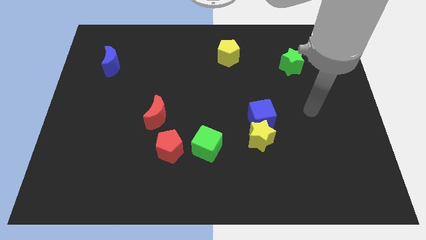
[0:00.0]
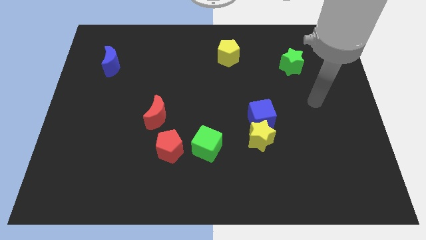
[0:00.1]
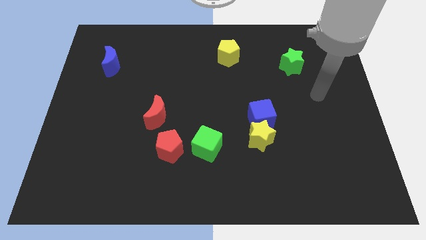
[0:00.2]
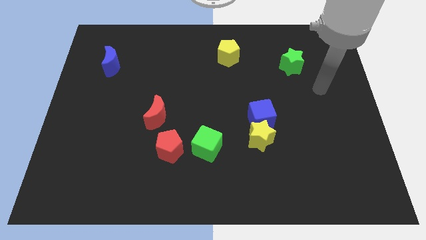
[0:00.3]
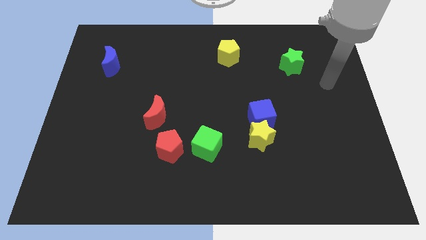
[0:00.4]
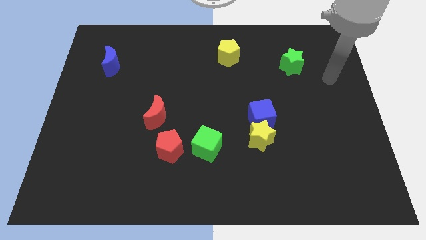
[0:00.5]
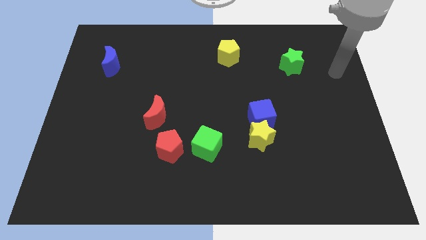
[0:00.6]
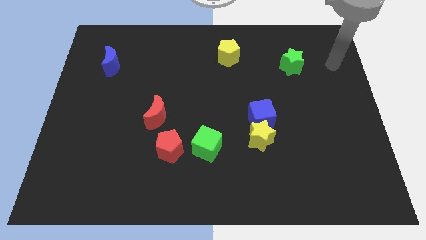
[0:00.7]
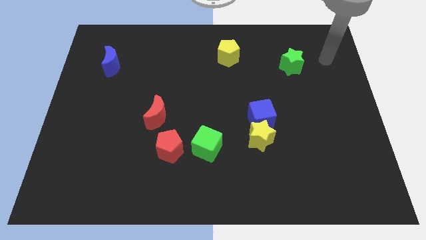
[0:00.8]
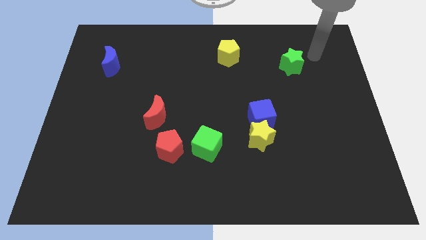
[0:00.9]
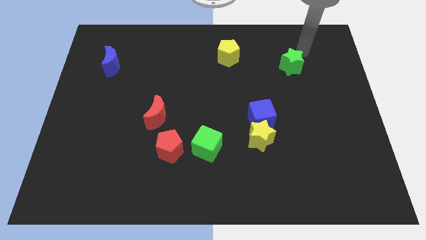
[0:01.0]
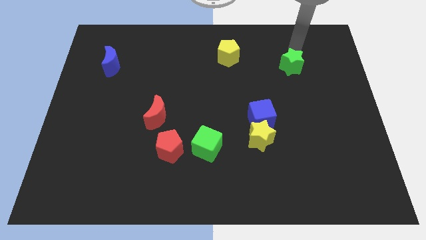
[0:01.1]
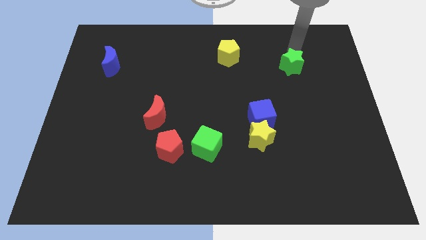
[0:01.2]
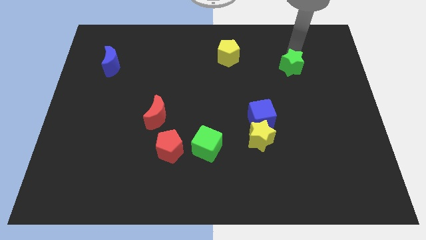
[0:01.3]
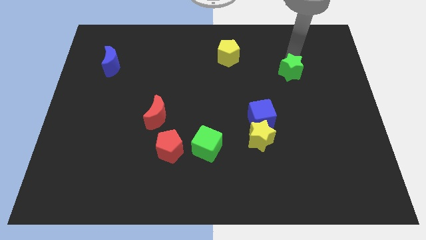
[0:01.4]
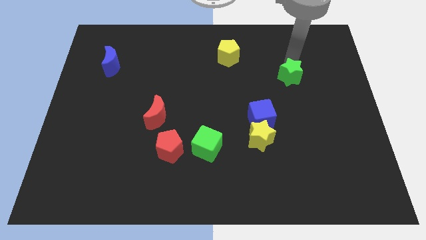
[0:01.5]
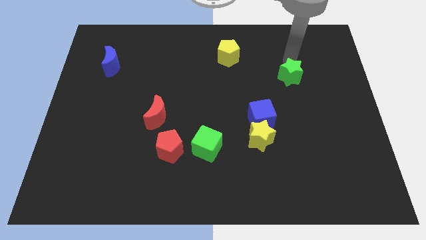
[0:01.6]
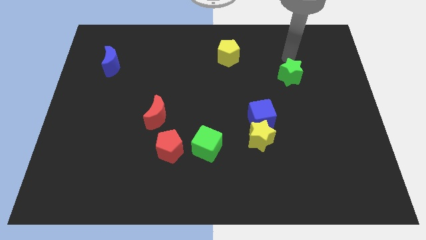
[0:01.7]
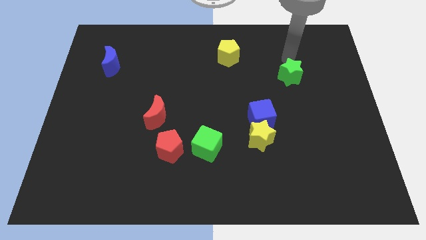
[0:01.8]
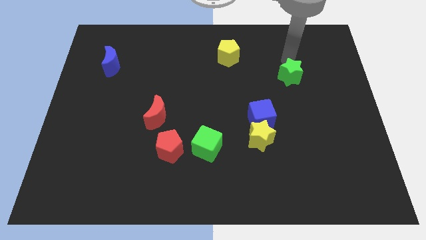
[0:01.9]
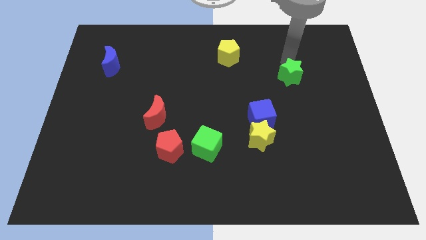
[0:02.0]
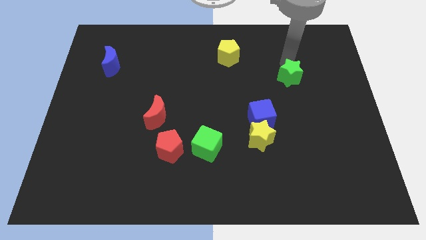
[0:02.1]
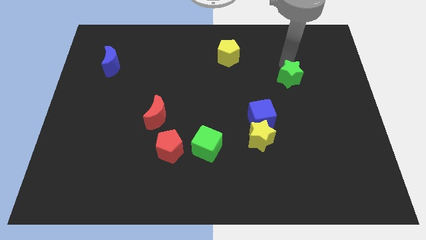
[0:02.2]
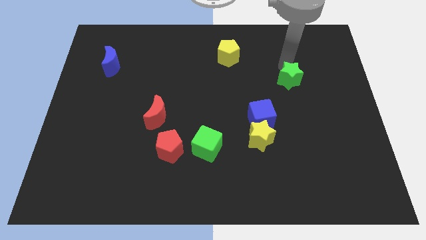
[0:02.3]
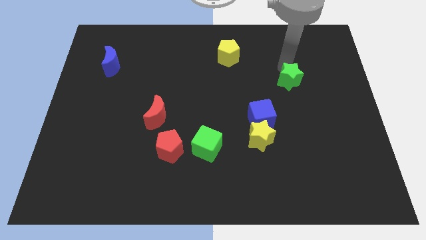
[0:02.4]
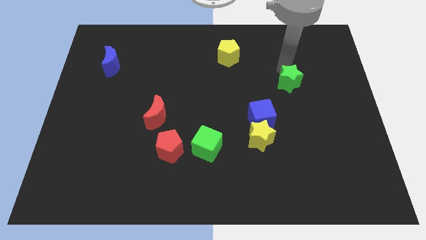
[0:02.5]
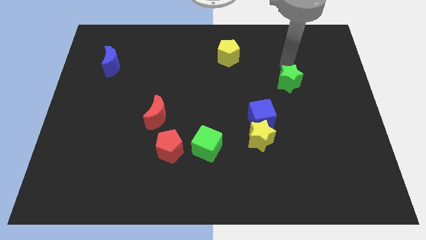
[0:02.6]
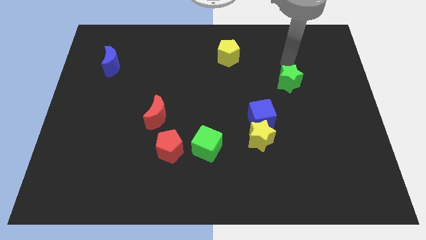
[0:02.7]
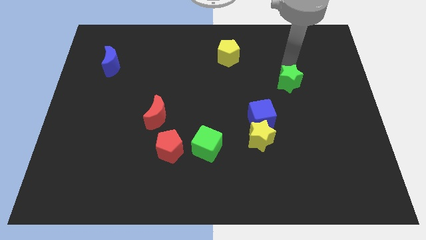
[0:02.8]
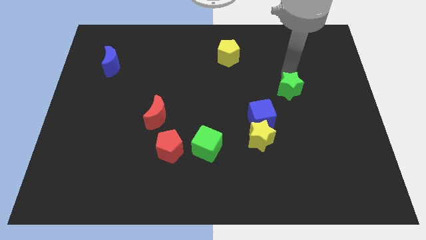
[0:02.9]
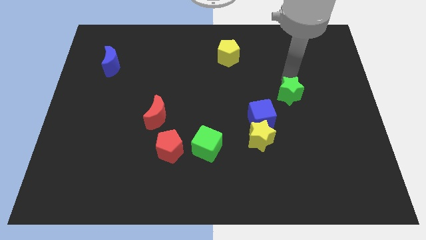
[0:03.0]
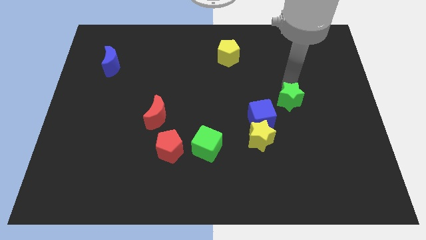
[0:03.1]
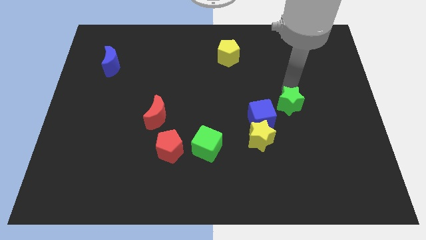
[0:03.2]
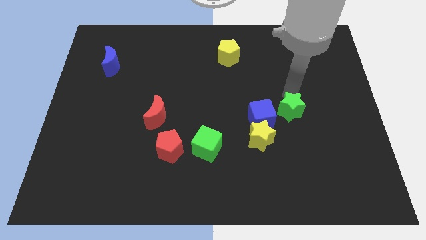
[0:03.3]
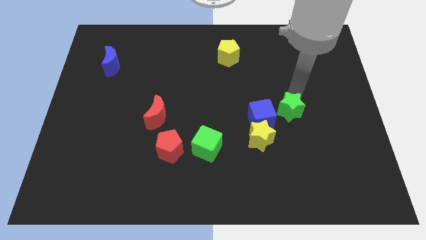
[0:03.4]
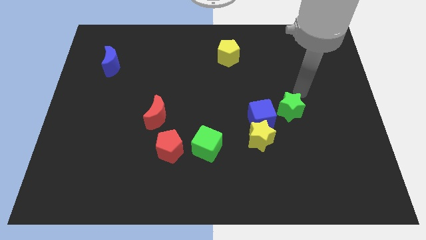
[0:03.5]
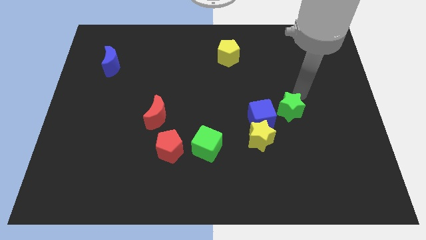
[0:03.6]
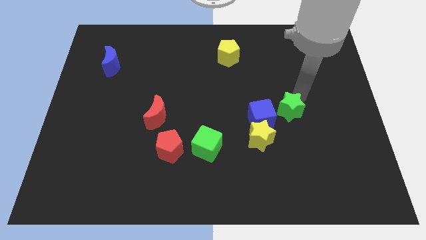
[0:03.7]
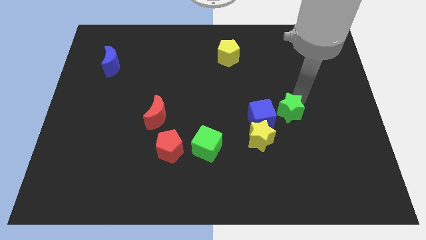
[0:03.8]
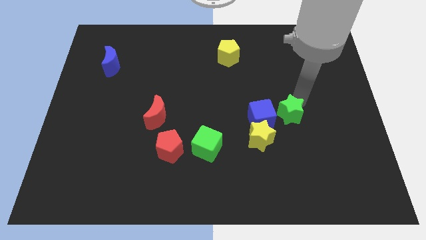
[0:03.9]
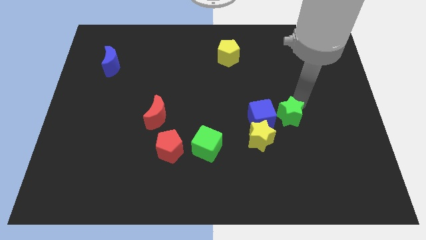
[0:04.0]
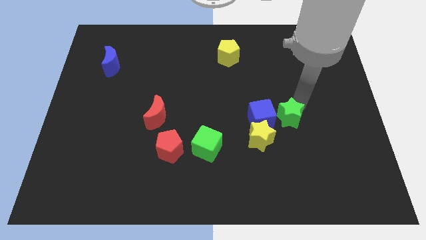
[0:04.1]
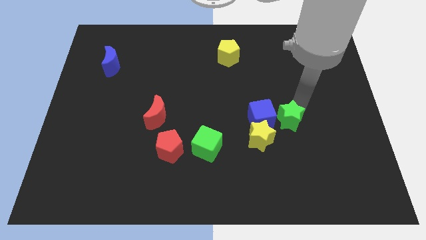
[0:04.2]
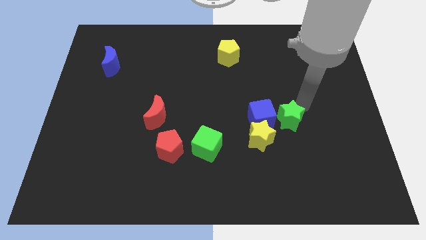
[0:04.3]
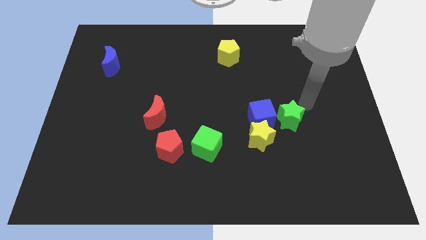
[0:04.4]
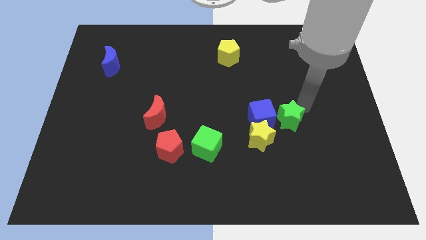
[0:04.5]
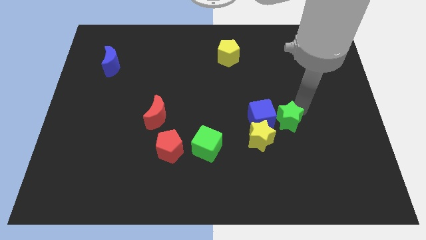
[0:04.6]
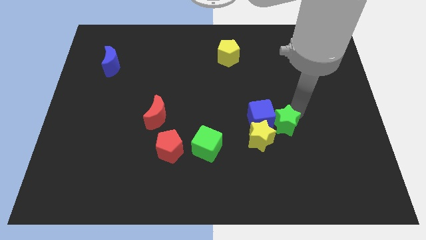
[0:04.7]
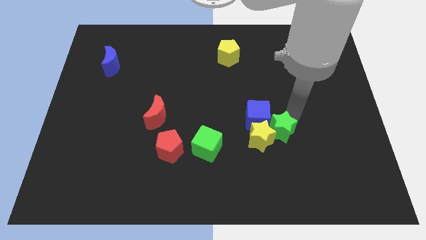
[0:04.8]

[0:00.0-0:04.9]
move the green star next to the yellow star

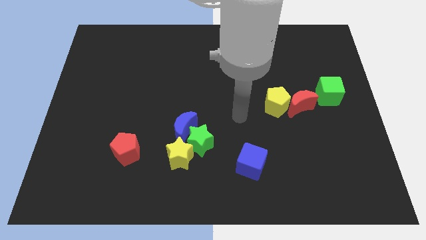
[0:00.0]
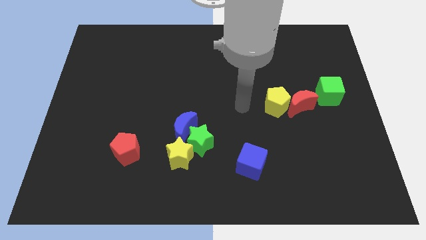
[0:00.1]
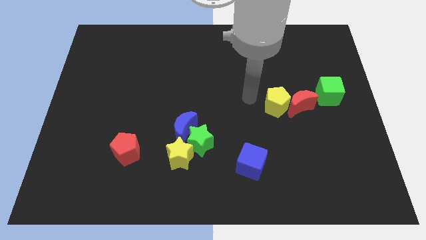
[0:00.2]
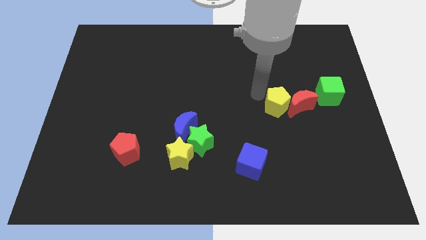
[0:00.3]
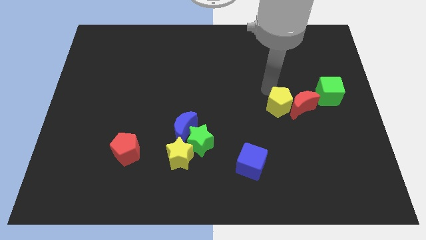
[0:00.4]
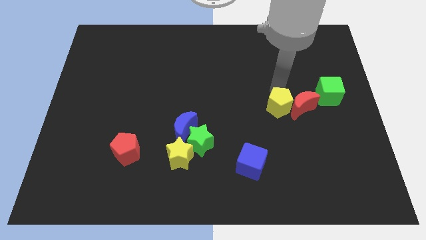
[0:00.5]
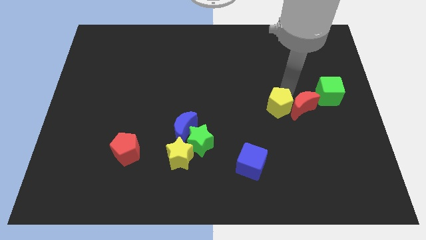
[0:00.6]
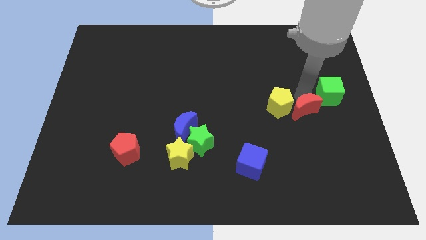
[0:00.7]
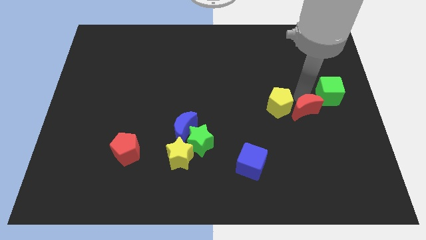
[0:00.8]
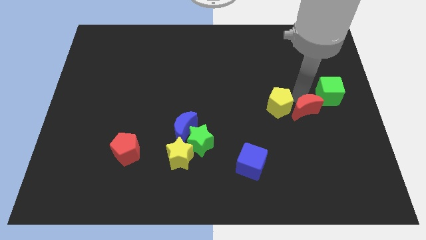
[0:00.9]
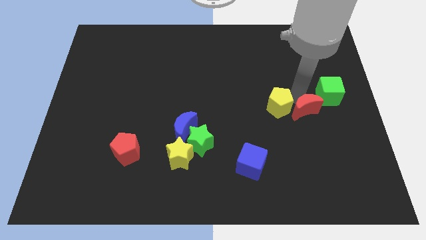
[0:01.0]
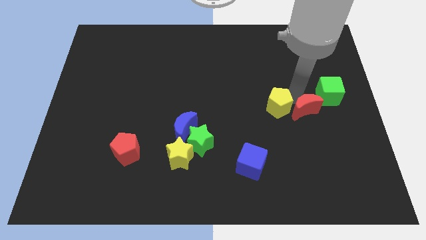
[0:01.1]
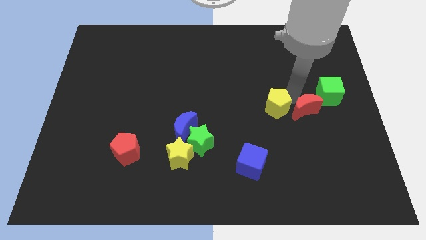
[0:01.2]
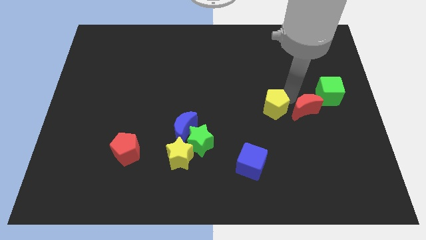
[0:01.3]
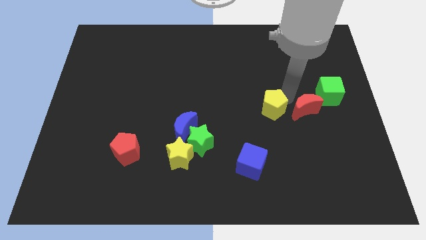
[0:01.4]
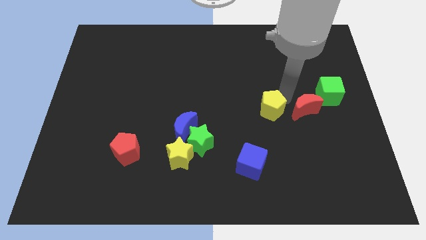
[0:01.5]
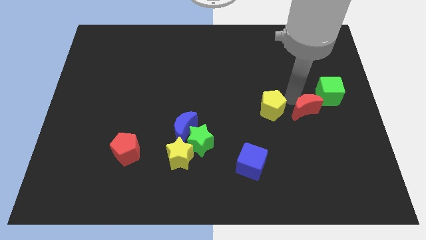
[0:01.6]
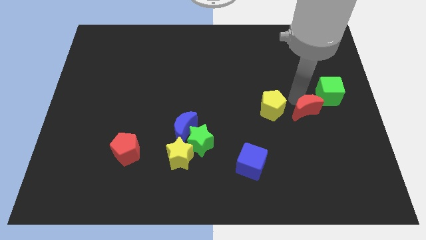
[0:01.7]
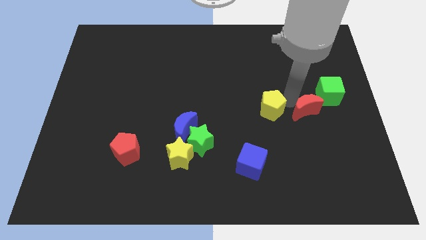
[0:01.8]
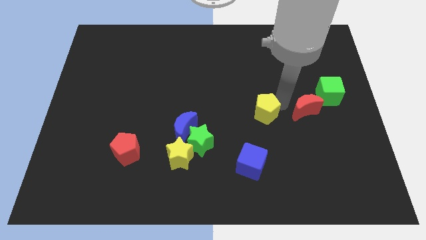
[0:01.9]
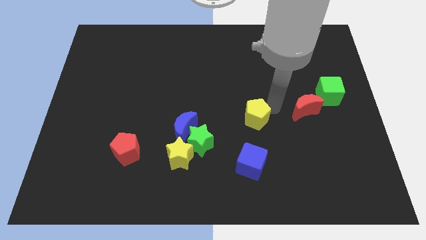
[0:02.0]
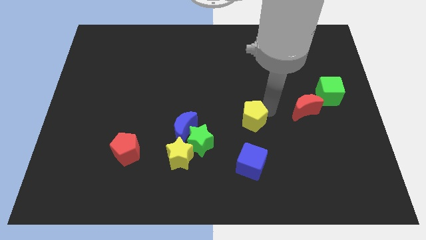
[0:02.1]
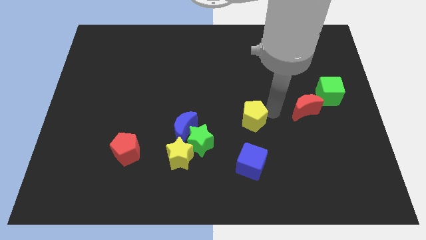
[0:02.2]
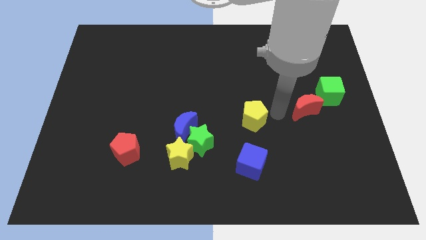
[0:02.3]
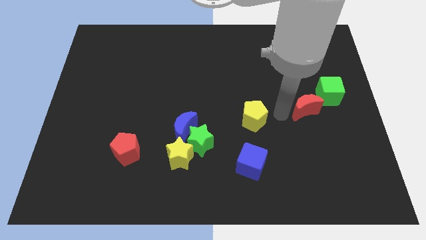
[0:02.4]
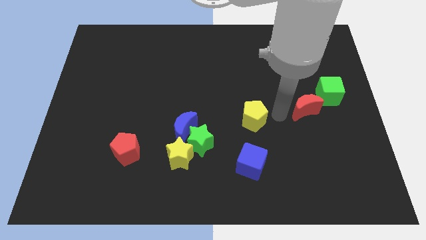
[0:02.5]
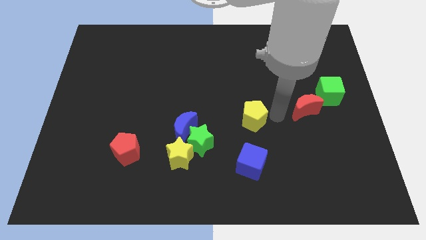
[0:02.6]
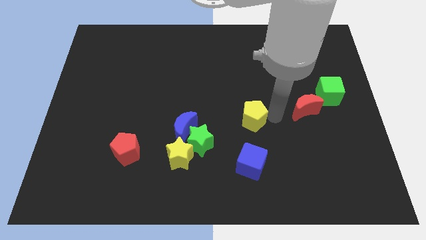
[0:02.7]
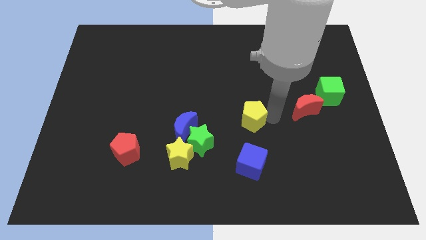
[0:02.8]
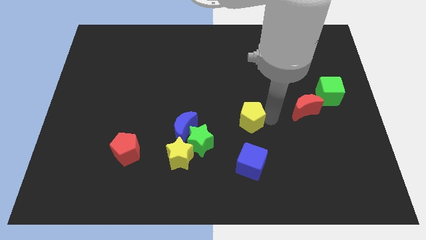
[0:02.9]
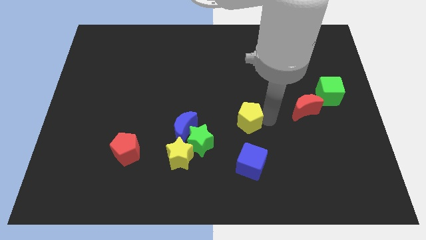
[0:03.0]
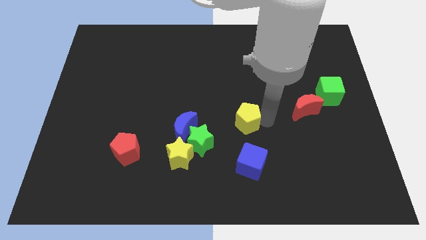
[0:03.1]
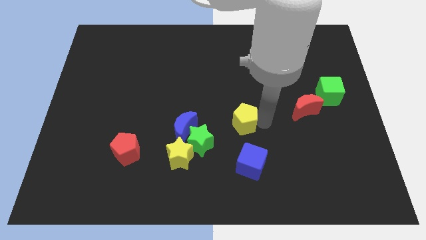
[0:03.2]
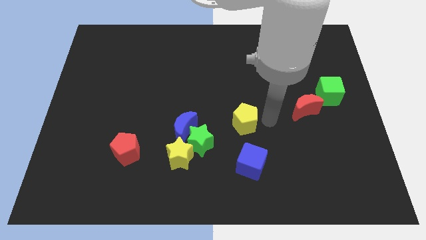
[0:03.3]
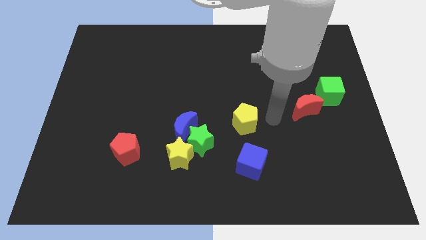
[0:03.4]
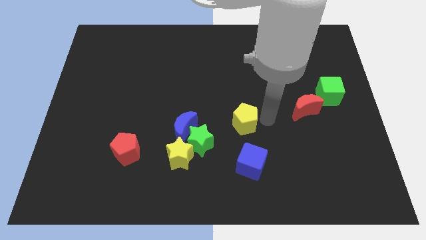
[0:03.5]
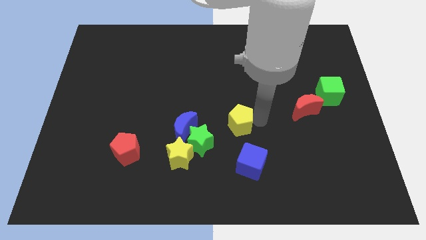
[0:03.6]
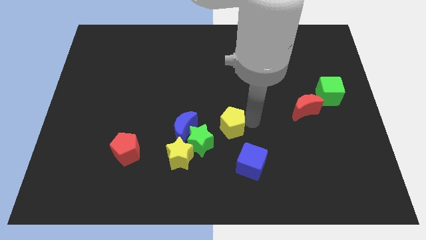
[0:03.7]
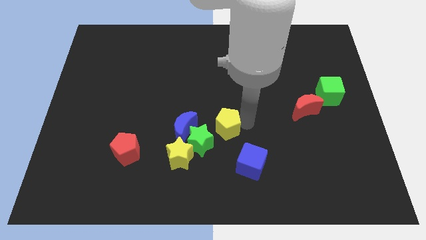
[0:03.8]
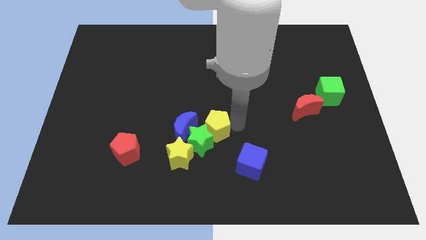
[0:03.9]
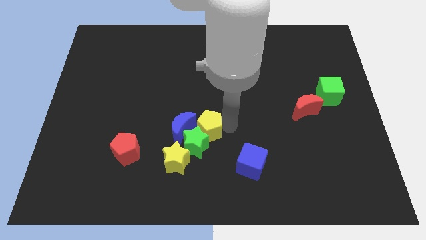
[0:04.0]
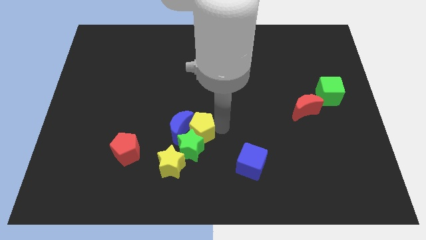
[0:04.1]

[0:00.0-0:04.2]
push the yellow pentagon to the blue moon
